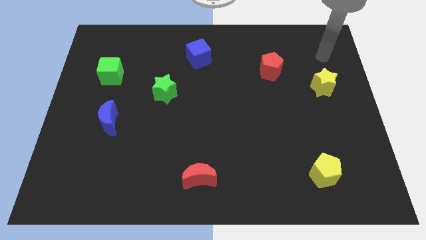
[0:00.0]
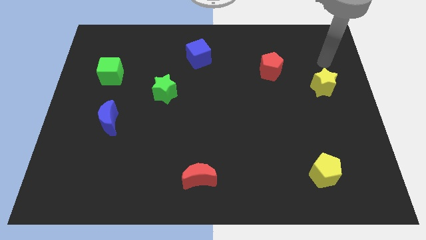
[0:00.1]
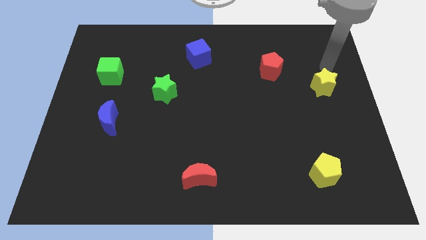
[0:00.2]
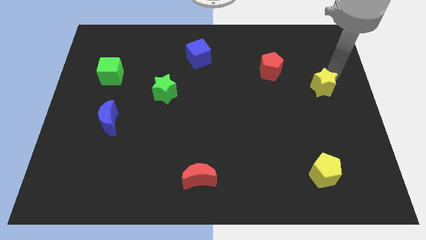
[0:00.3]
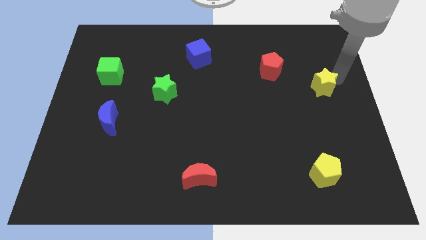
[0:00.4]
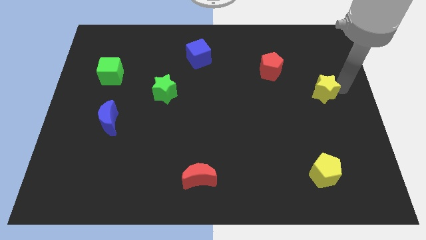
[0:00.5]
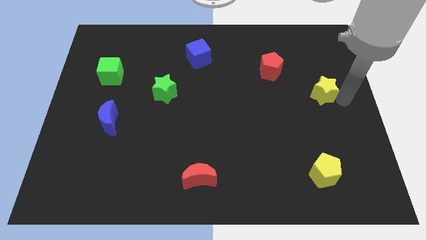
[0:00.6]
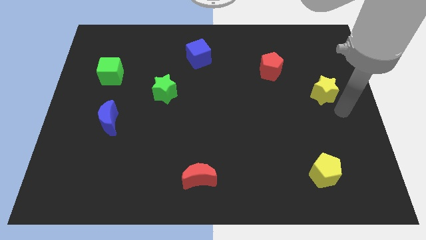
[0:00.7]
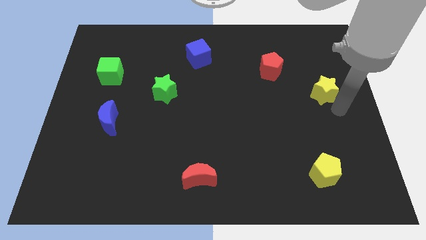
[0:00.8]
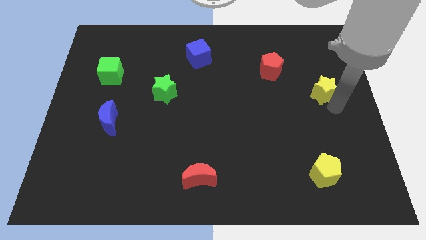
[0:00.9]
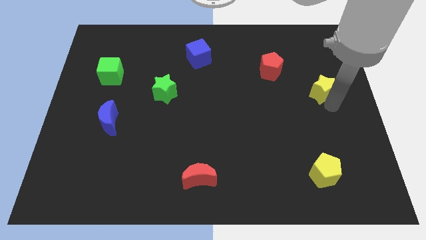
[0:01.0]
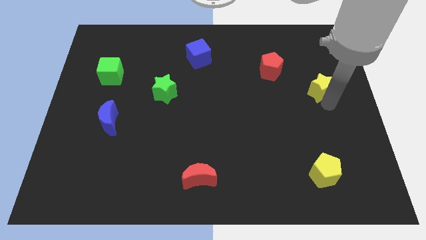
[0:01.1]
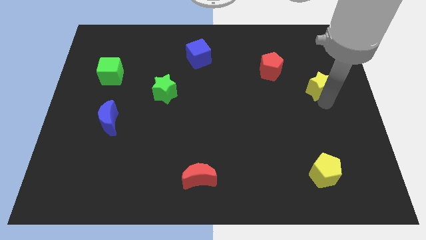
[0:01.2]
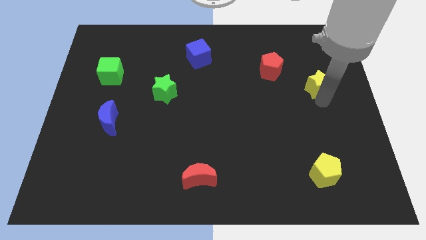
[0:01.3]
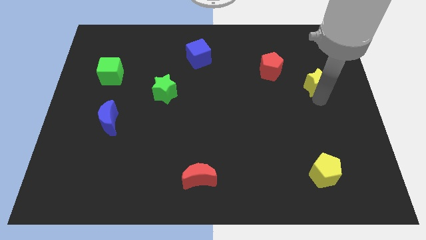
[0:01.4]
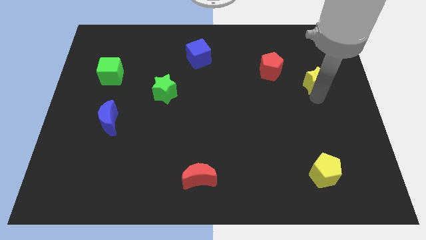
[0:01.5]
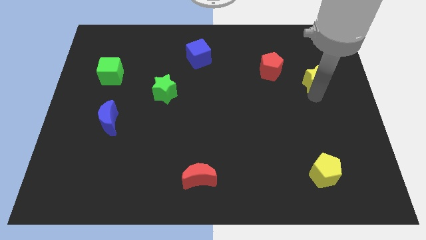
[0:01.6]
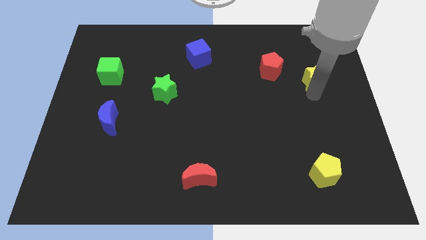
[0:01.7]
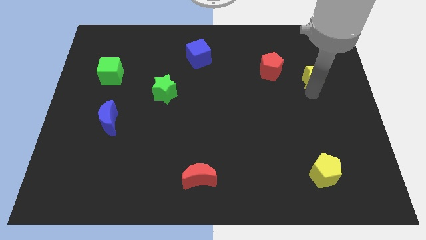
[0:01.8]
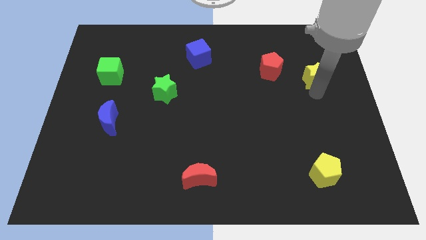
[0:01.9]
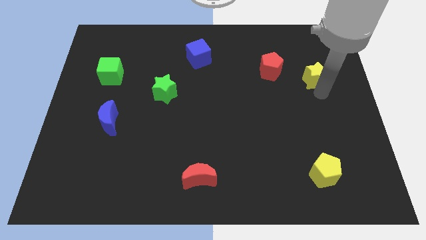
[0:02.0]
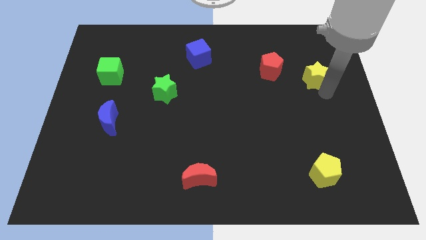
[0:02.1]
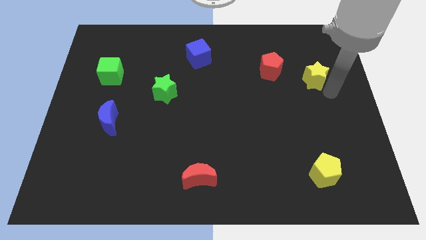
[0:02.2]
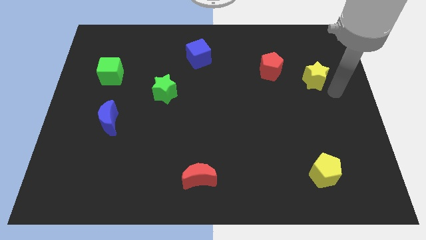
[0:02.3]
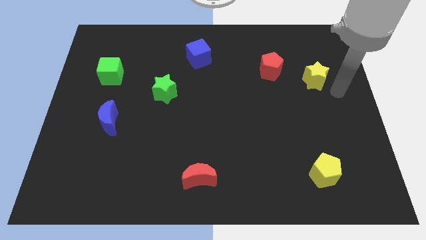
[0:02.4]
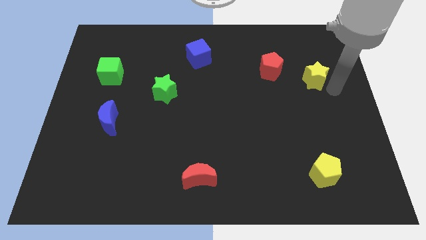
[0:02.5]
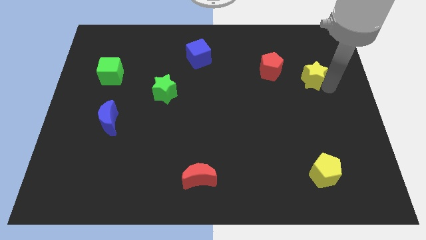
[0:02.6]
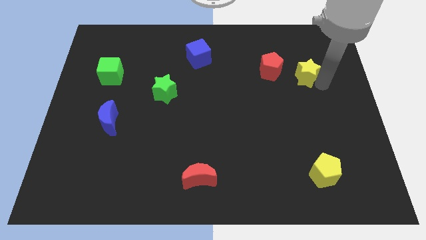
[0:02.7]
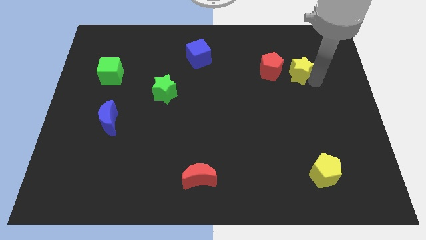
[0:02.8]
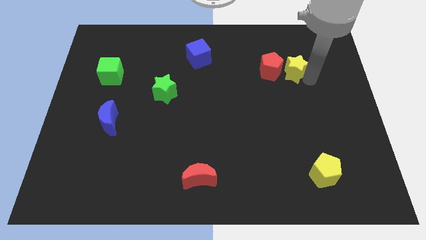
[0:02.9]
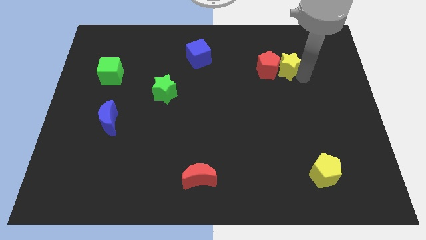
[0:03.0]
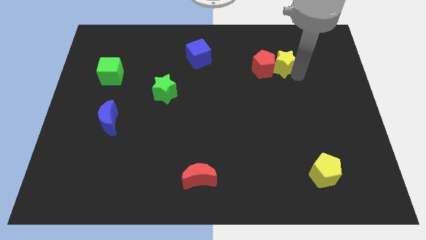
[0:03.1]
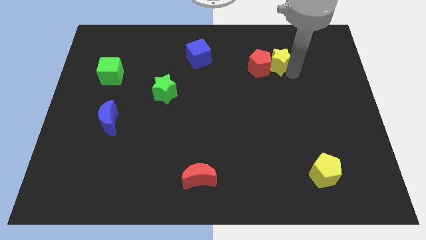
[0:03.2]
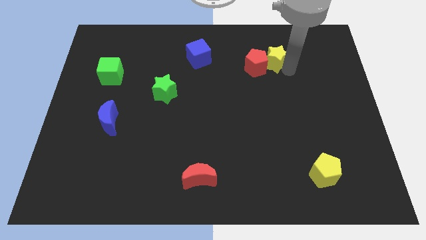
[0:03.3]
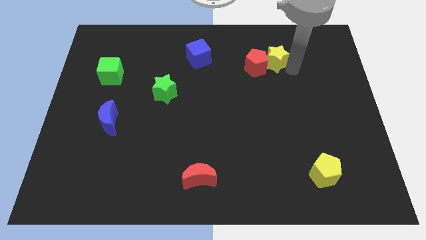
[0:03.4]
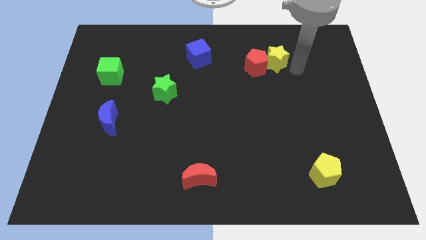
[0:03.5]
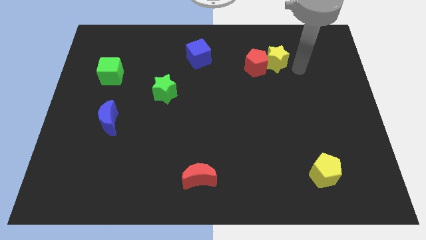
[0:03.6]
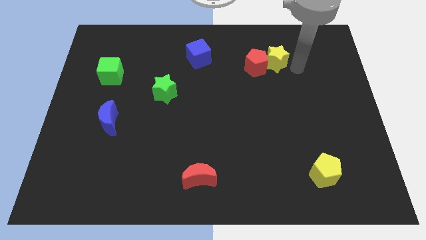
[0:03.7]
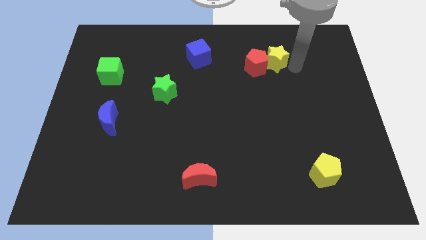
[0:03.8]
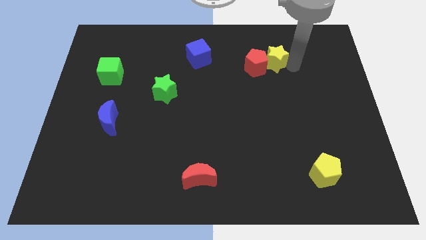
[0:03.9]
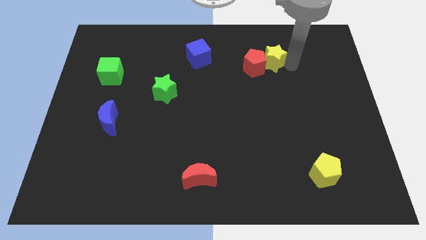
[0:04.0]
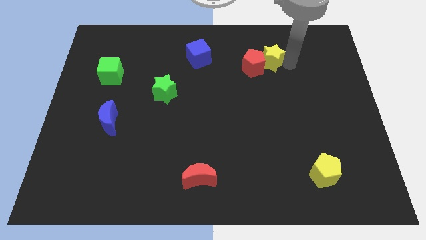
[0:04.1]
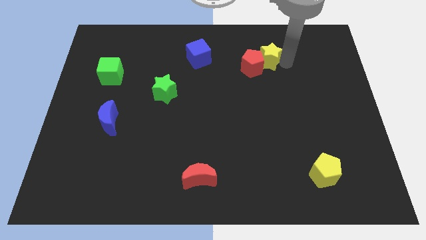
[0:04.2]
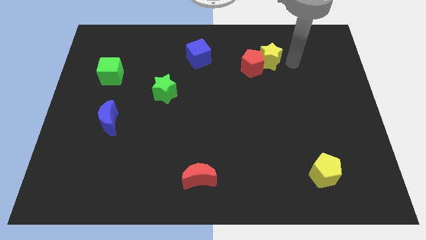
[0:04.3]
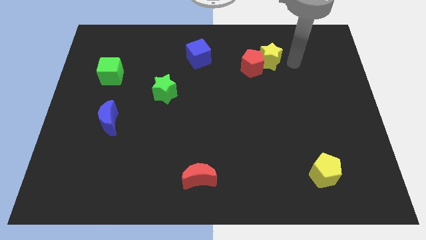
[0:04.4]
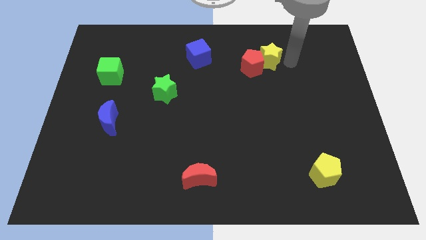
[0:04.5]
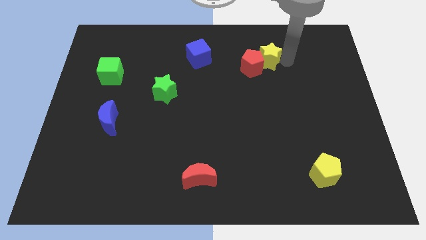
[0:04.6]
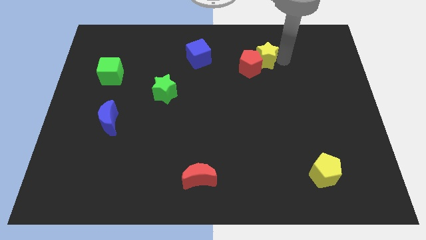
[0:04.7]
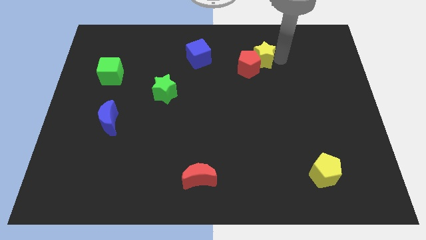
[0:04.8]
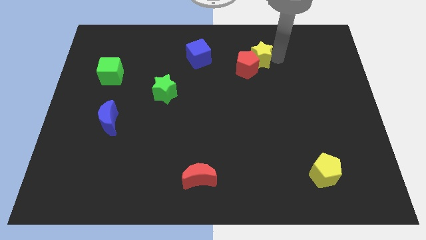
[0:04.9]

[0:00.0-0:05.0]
push the yellow star just right of the blue cube

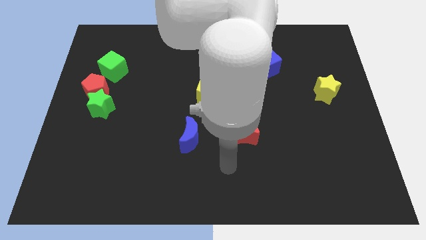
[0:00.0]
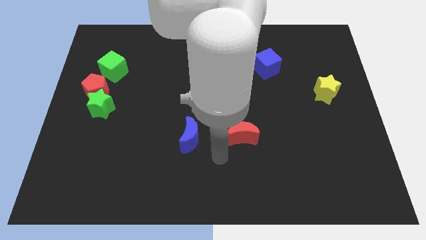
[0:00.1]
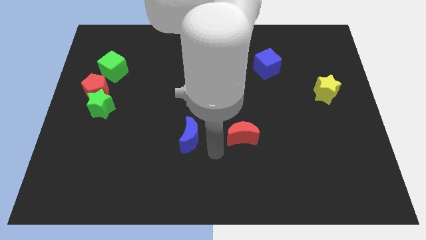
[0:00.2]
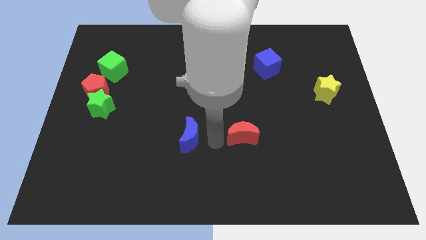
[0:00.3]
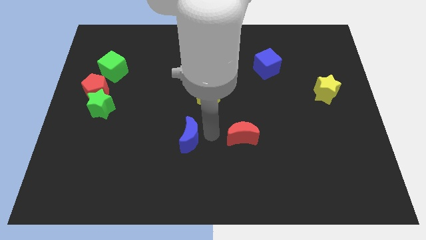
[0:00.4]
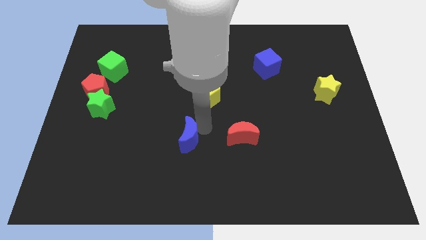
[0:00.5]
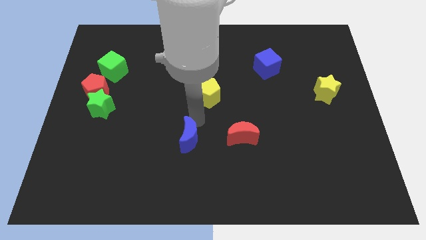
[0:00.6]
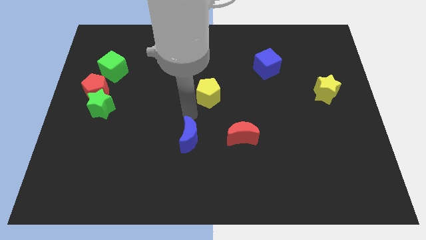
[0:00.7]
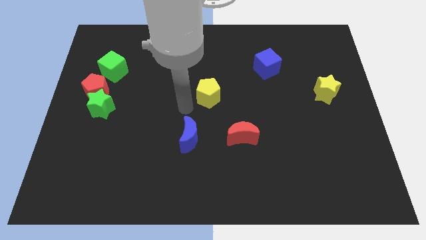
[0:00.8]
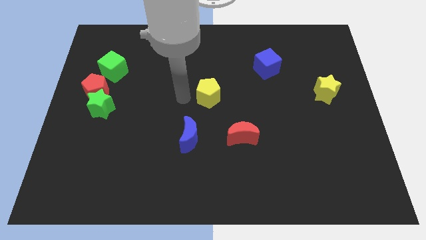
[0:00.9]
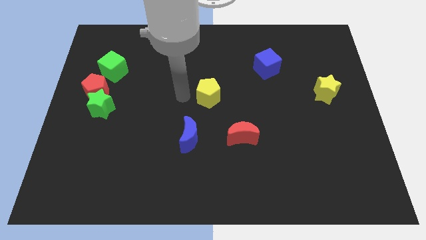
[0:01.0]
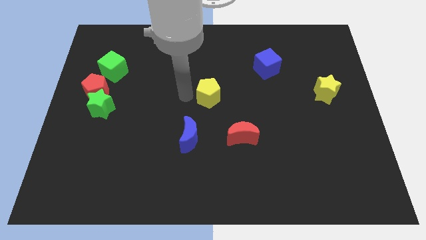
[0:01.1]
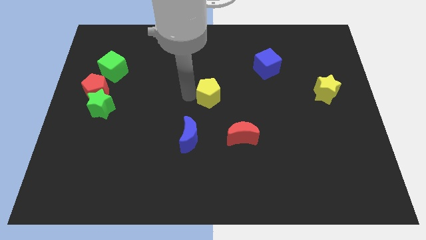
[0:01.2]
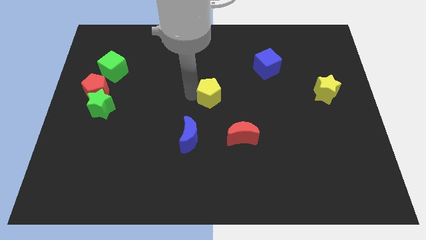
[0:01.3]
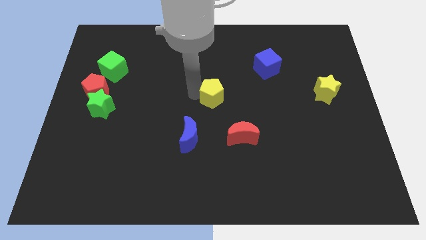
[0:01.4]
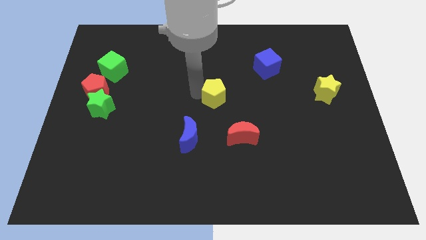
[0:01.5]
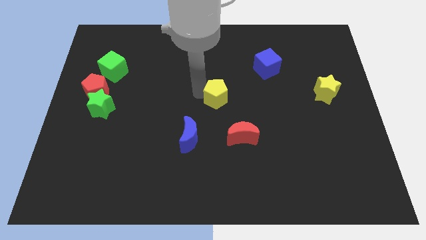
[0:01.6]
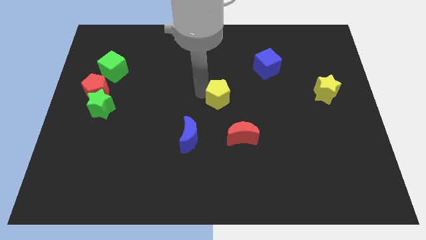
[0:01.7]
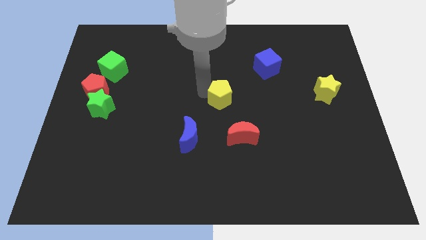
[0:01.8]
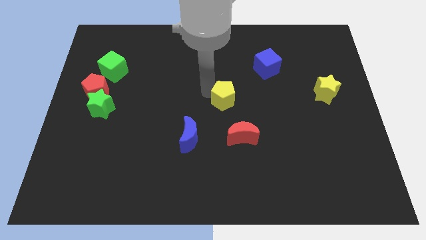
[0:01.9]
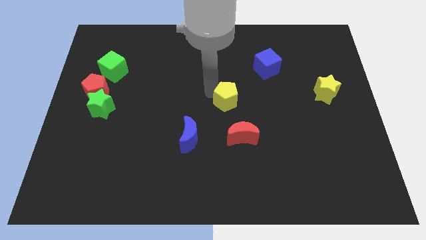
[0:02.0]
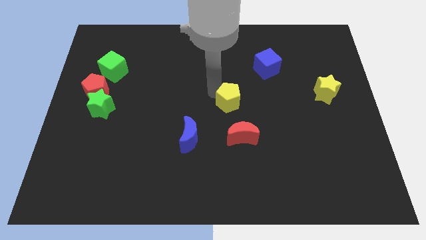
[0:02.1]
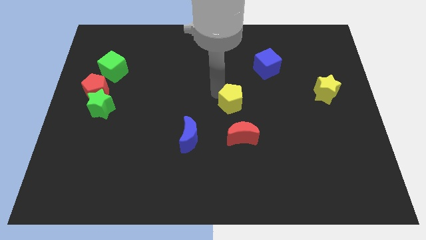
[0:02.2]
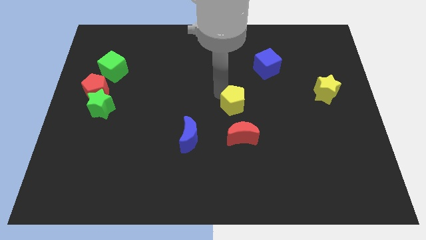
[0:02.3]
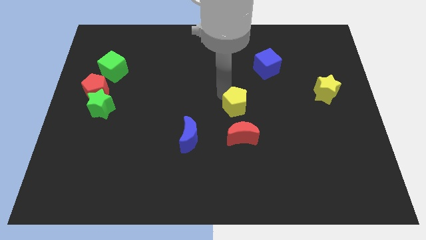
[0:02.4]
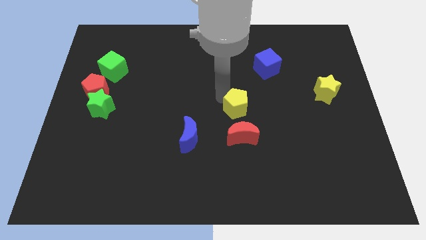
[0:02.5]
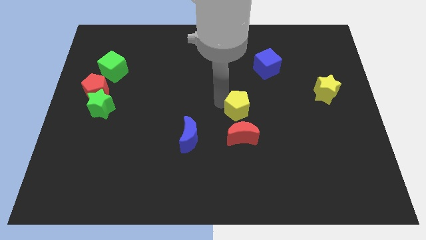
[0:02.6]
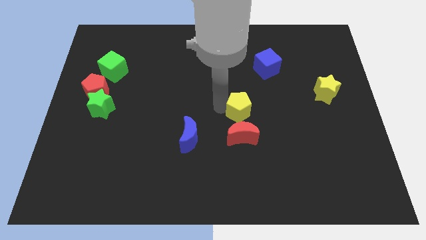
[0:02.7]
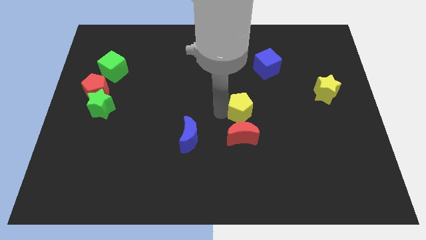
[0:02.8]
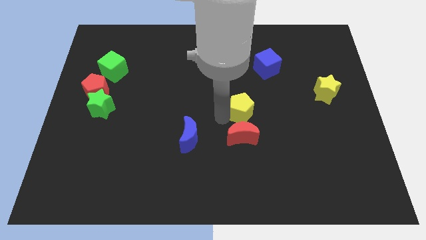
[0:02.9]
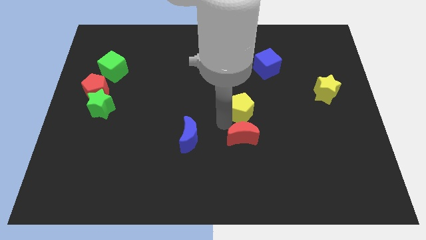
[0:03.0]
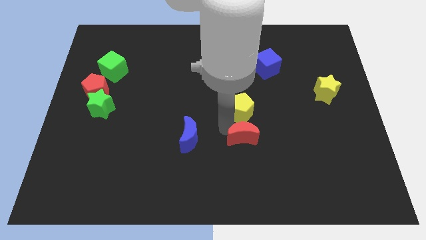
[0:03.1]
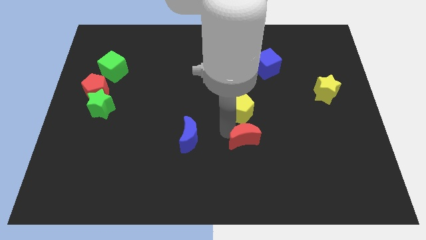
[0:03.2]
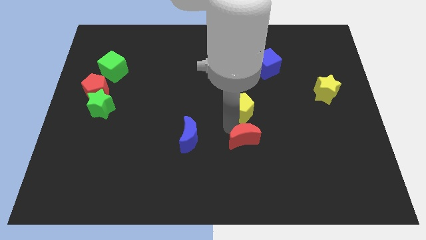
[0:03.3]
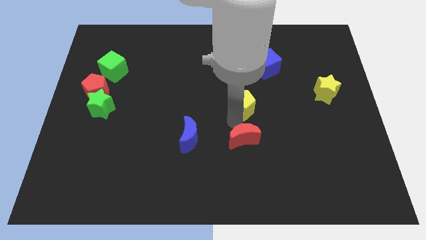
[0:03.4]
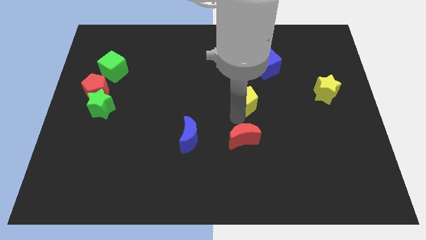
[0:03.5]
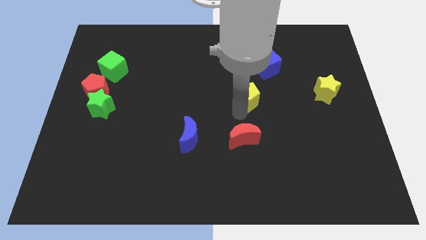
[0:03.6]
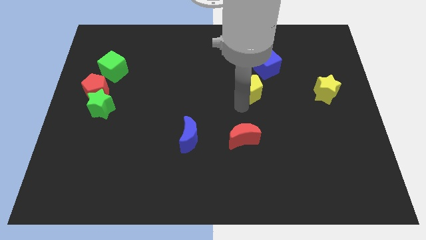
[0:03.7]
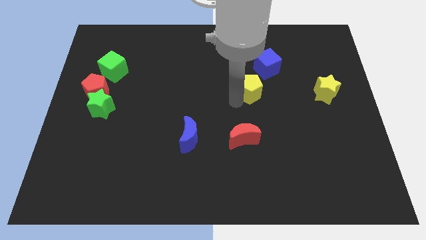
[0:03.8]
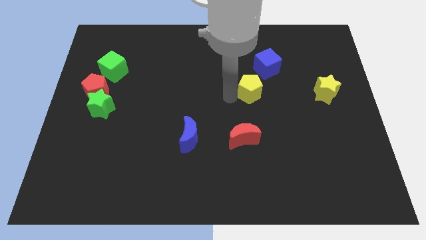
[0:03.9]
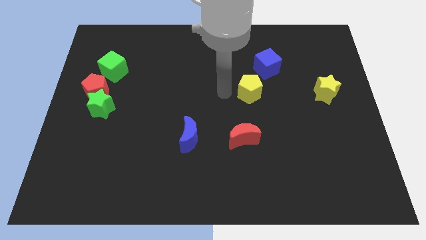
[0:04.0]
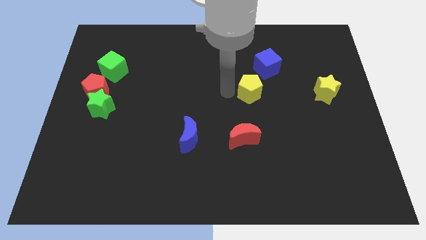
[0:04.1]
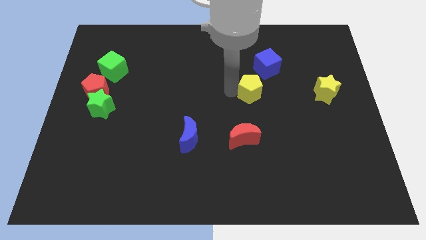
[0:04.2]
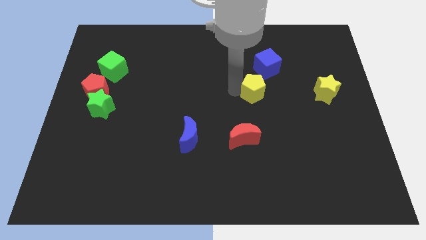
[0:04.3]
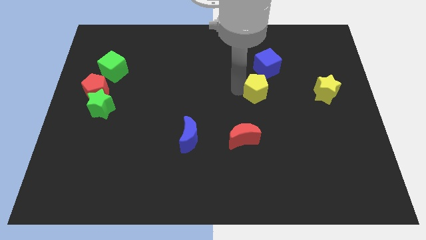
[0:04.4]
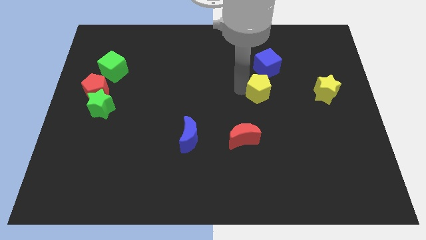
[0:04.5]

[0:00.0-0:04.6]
push the yellow pentagon to the left side of the yellow star
